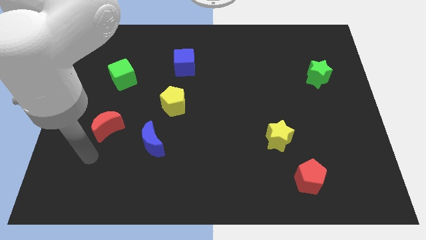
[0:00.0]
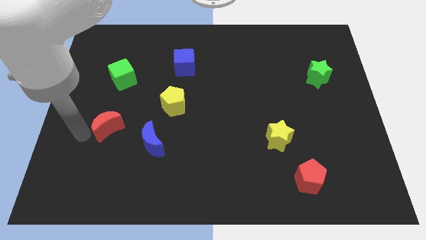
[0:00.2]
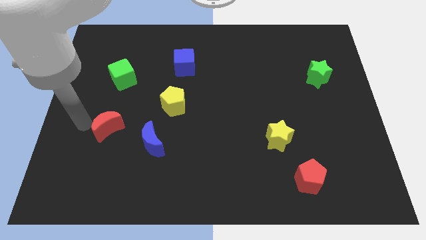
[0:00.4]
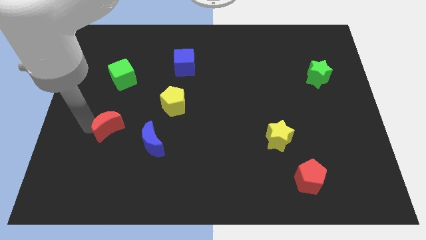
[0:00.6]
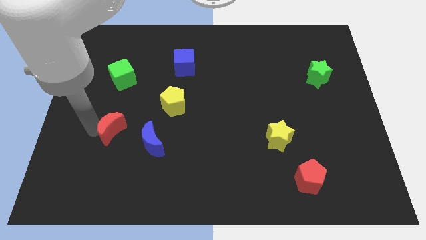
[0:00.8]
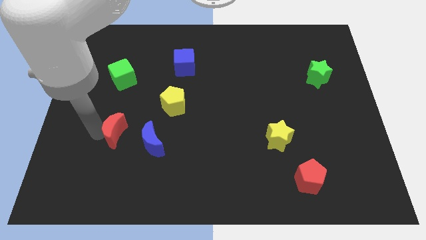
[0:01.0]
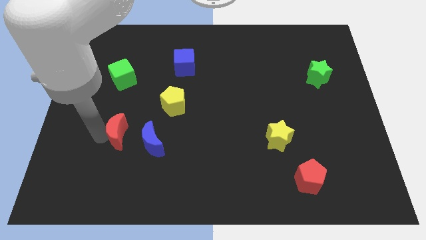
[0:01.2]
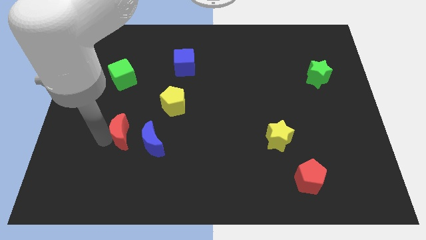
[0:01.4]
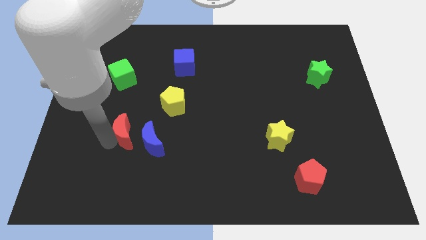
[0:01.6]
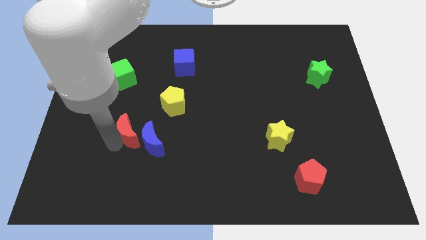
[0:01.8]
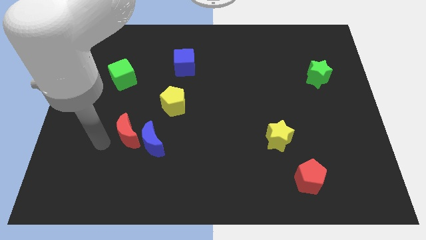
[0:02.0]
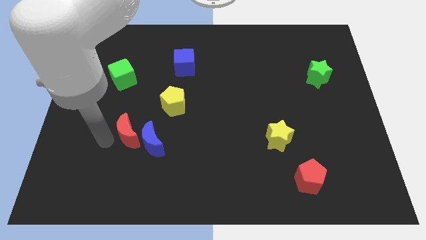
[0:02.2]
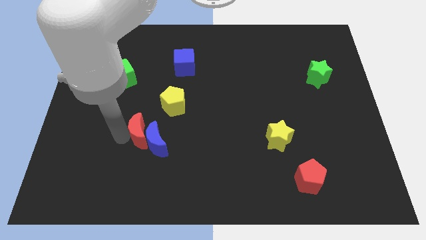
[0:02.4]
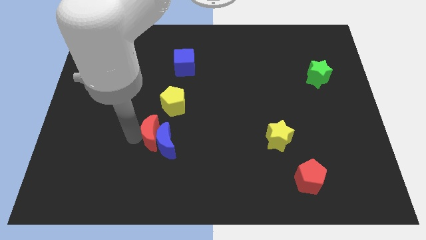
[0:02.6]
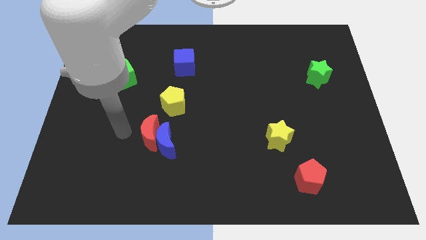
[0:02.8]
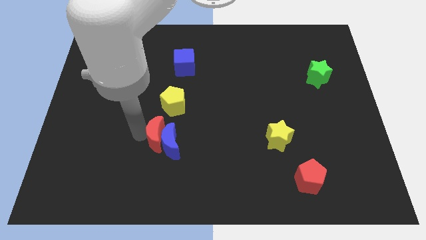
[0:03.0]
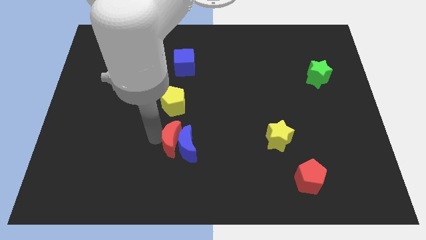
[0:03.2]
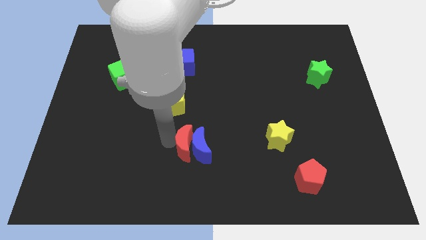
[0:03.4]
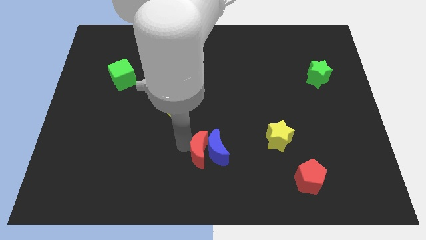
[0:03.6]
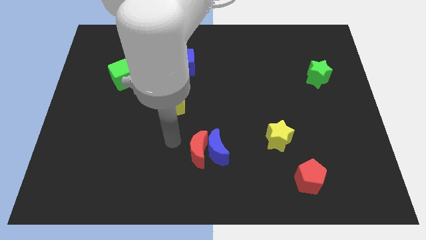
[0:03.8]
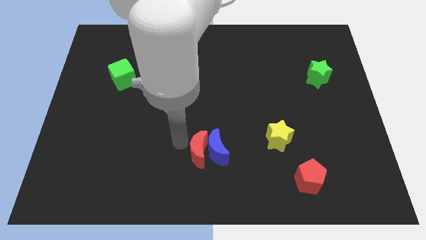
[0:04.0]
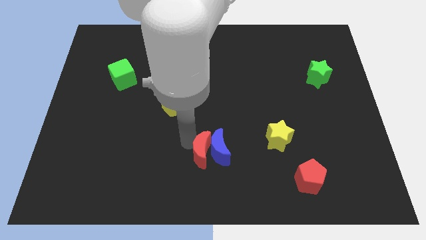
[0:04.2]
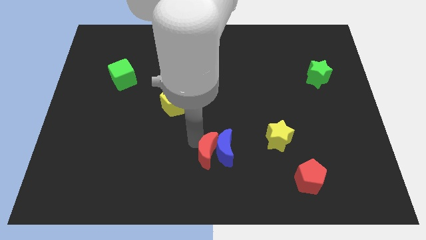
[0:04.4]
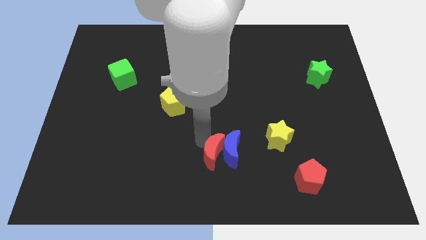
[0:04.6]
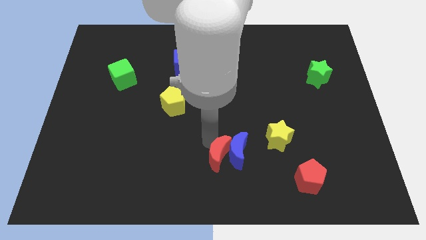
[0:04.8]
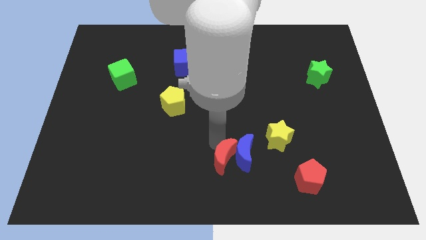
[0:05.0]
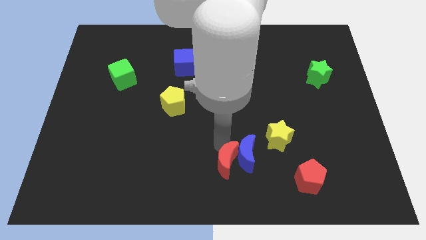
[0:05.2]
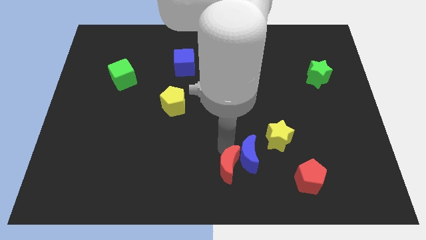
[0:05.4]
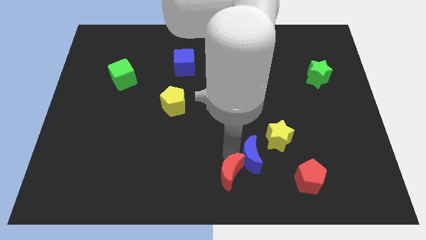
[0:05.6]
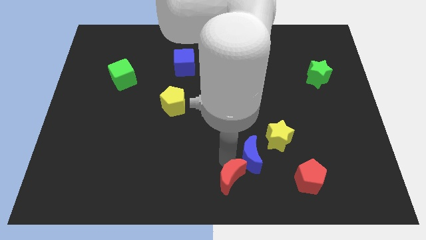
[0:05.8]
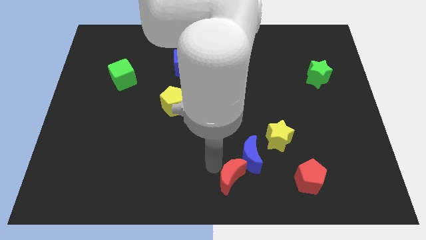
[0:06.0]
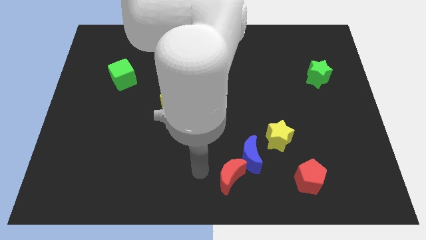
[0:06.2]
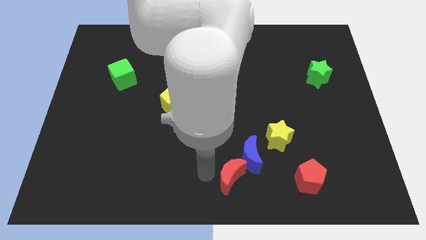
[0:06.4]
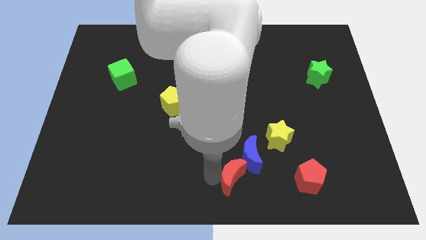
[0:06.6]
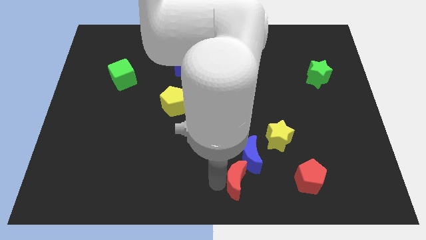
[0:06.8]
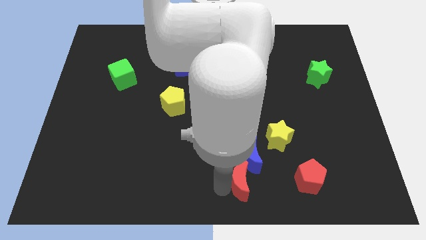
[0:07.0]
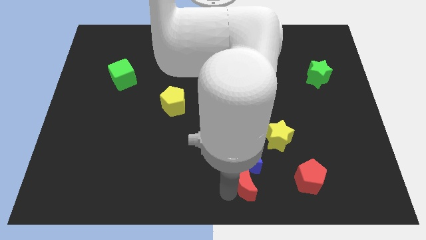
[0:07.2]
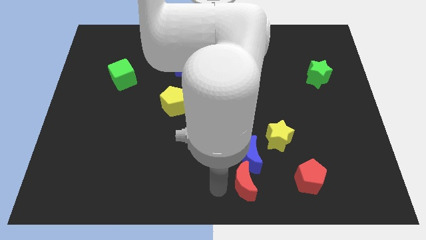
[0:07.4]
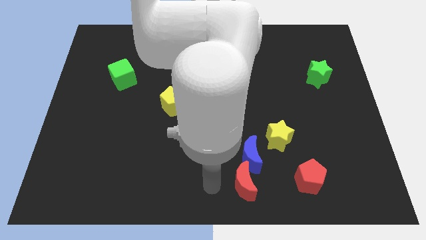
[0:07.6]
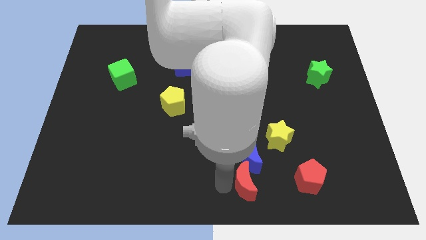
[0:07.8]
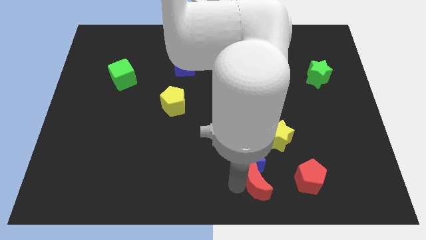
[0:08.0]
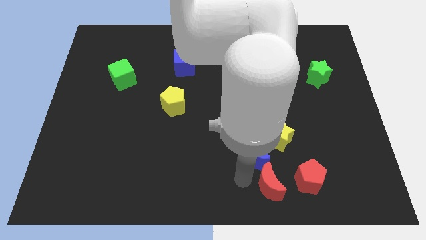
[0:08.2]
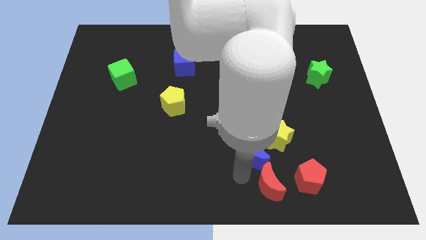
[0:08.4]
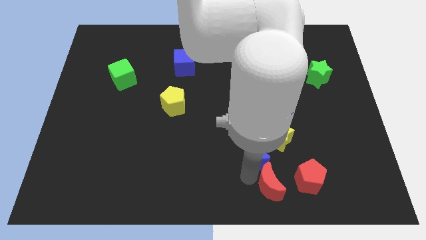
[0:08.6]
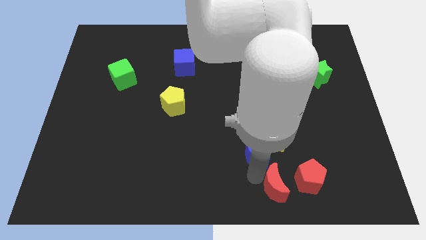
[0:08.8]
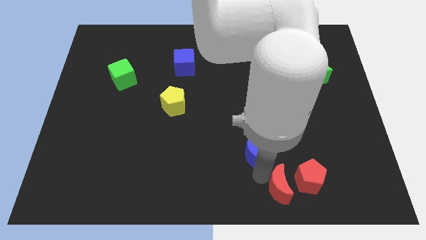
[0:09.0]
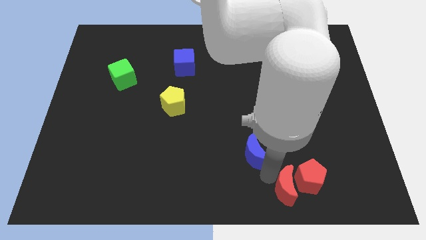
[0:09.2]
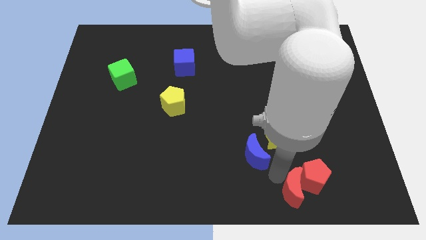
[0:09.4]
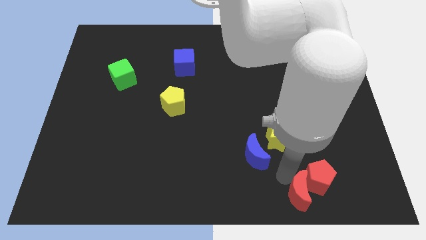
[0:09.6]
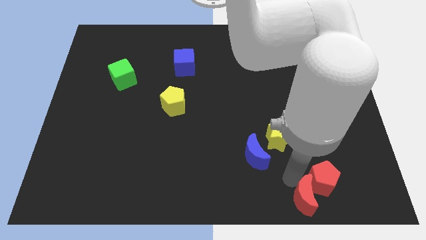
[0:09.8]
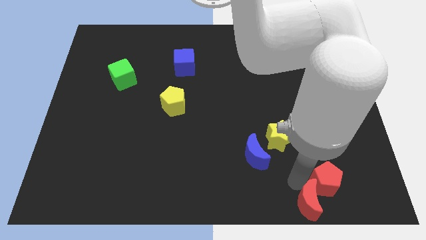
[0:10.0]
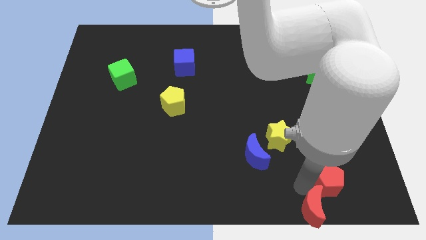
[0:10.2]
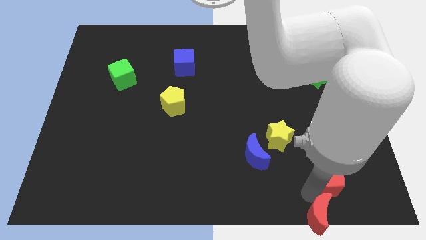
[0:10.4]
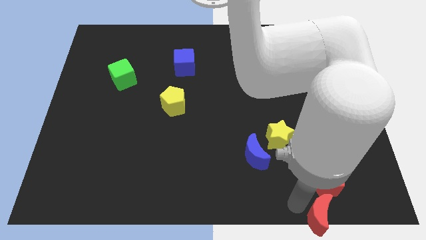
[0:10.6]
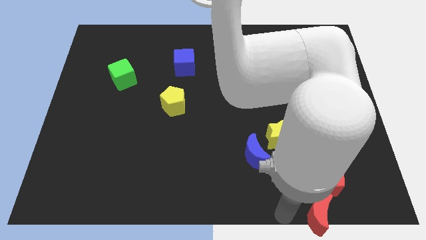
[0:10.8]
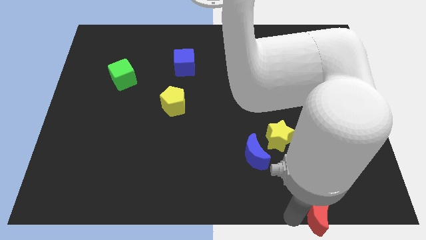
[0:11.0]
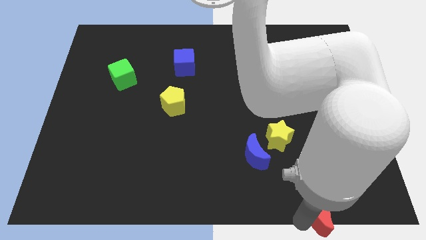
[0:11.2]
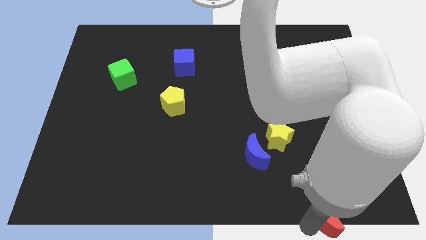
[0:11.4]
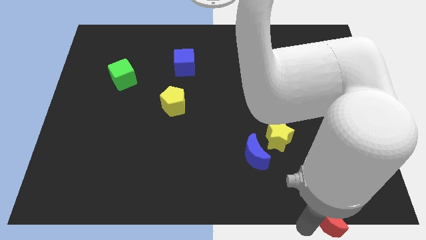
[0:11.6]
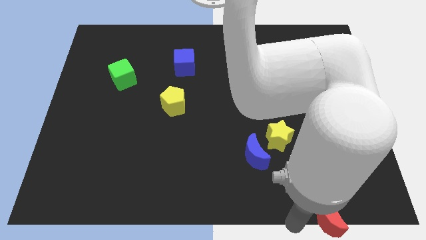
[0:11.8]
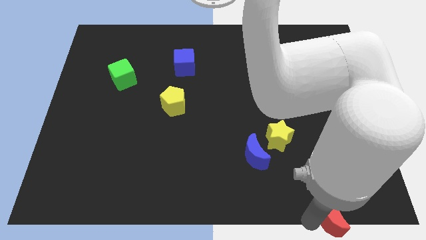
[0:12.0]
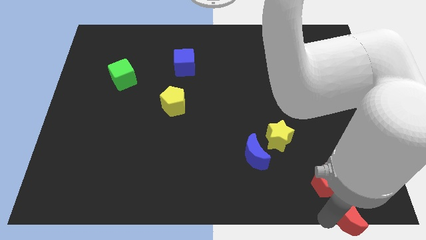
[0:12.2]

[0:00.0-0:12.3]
push the red moon to the bottom right
